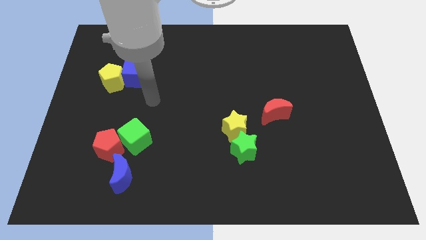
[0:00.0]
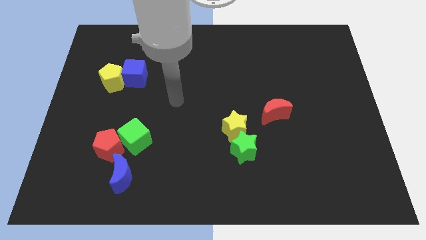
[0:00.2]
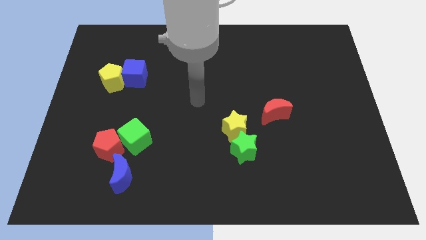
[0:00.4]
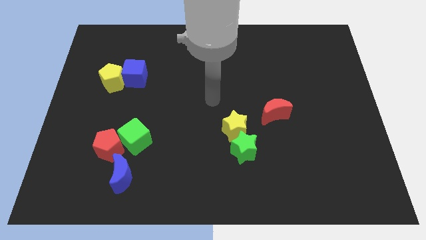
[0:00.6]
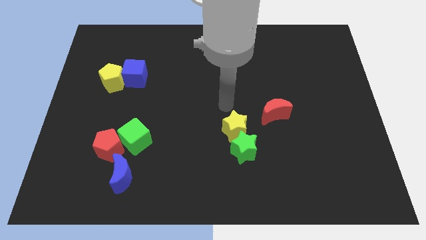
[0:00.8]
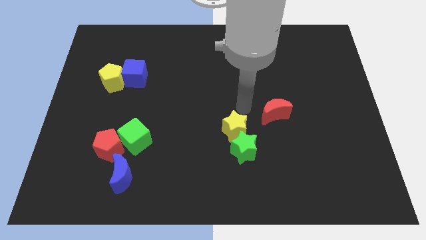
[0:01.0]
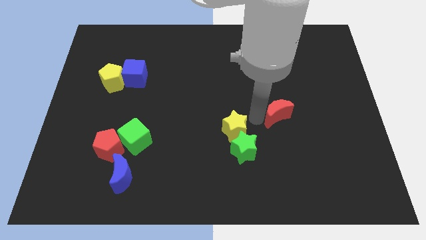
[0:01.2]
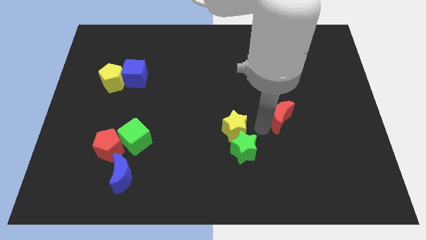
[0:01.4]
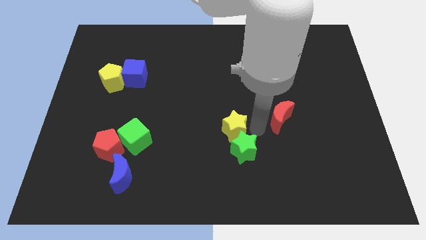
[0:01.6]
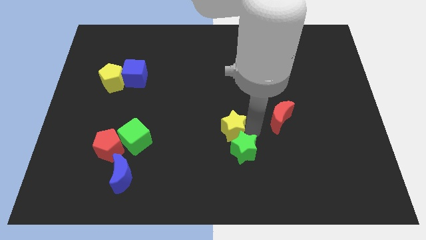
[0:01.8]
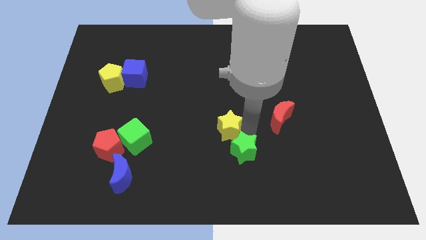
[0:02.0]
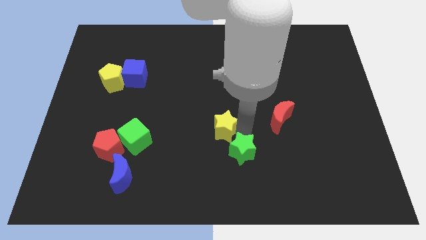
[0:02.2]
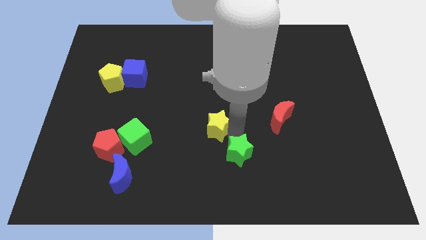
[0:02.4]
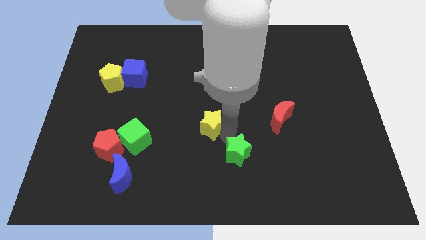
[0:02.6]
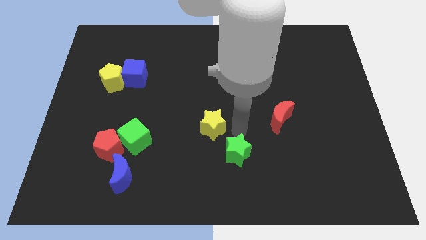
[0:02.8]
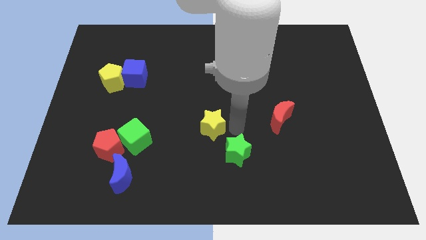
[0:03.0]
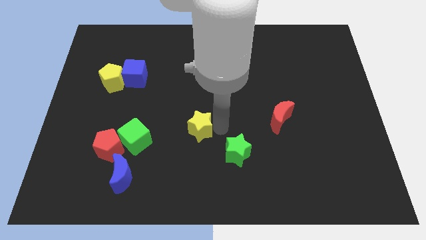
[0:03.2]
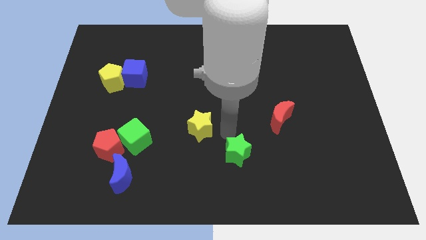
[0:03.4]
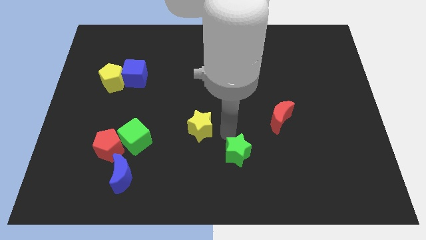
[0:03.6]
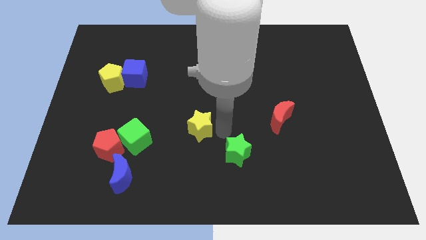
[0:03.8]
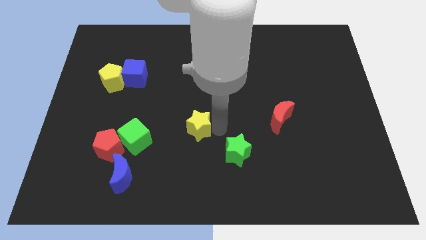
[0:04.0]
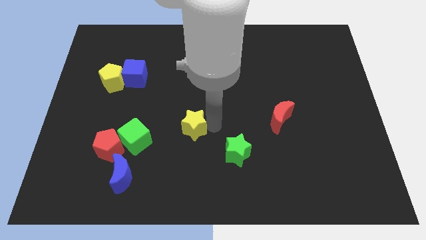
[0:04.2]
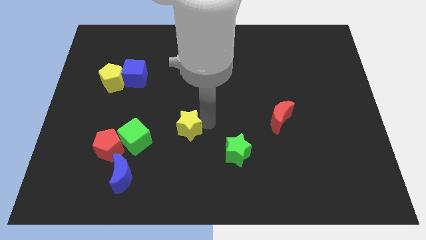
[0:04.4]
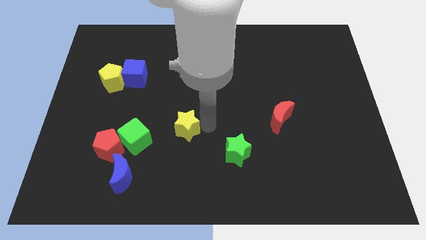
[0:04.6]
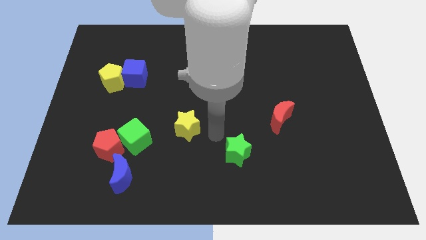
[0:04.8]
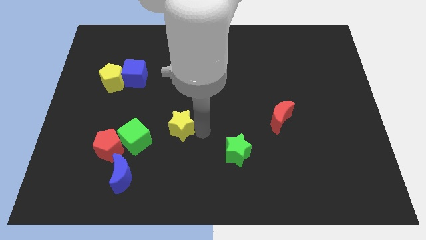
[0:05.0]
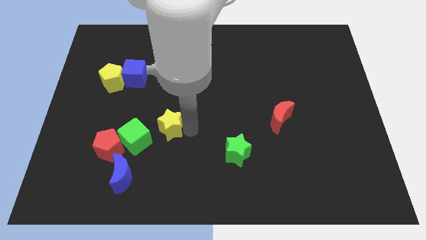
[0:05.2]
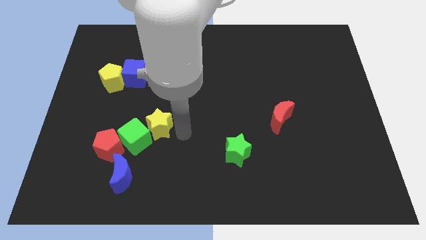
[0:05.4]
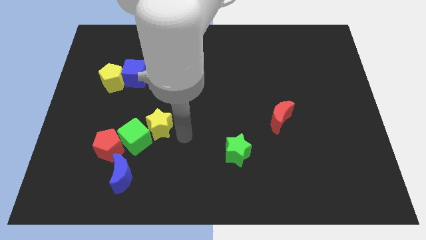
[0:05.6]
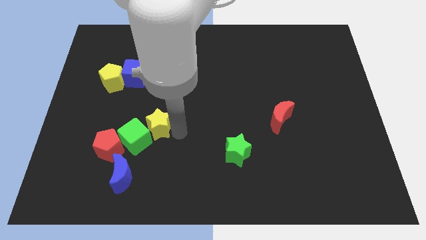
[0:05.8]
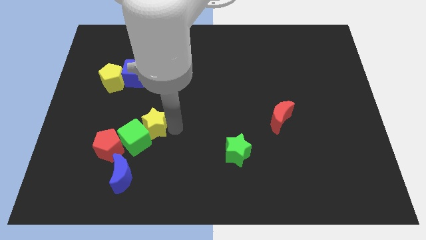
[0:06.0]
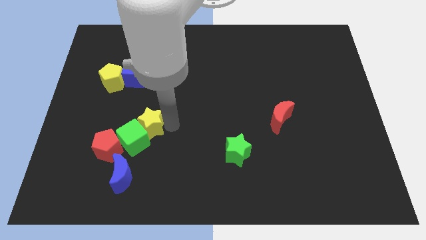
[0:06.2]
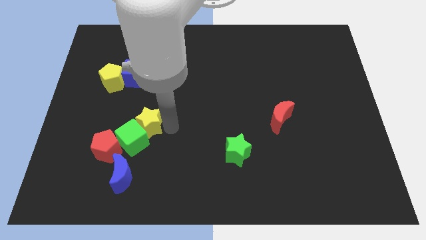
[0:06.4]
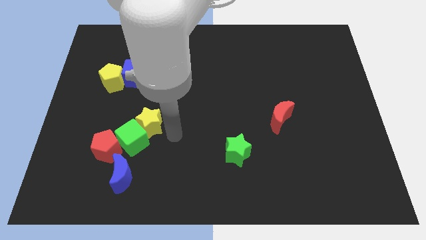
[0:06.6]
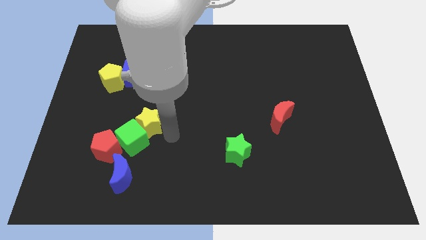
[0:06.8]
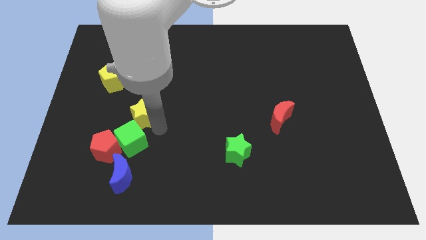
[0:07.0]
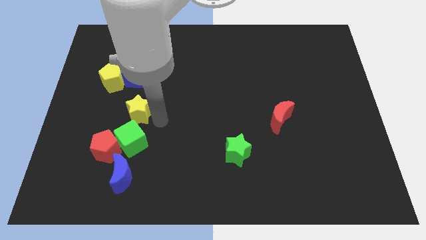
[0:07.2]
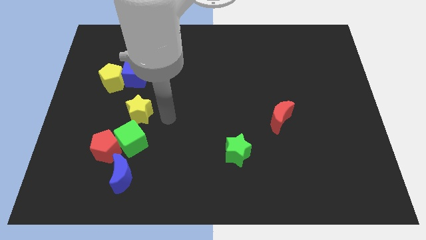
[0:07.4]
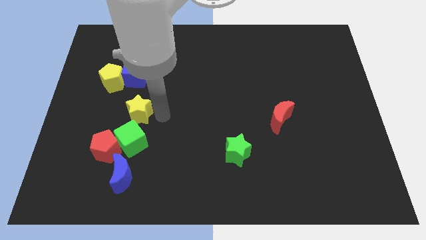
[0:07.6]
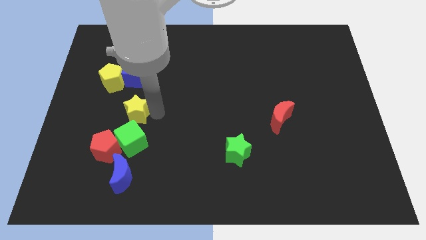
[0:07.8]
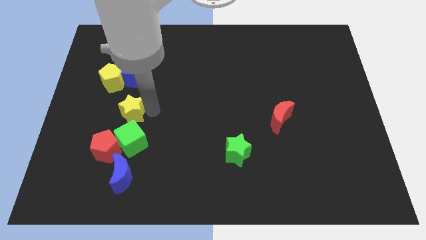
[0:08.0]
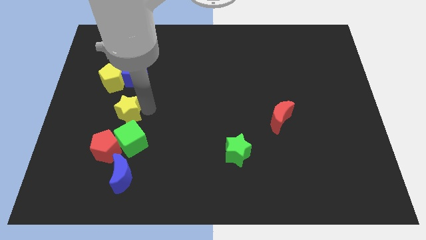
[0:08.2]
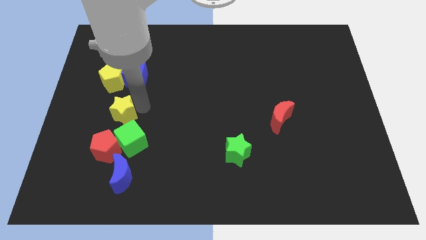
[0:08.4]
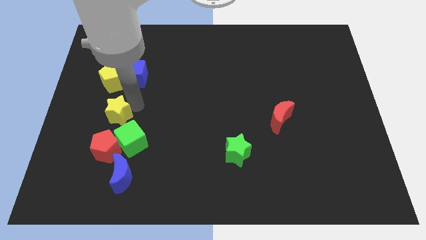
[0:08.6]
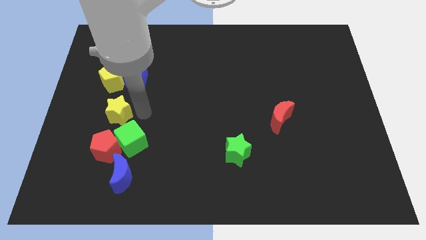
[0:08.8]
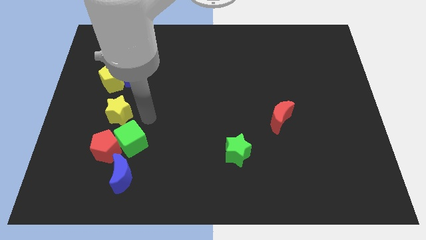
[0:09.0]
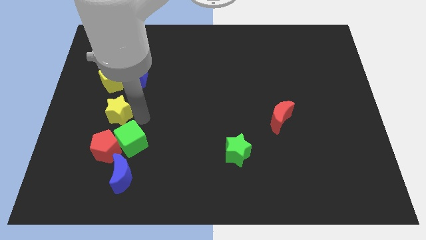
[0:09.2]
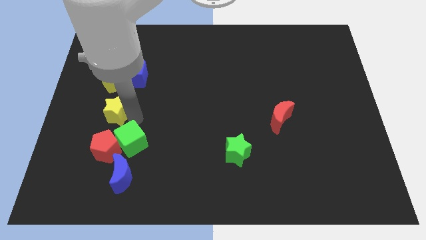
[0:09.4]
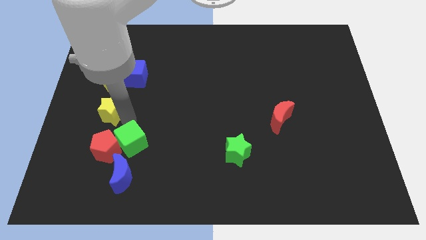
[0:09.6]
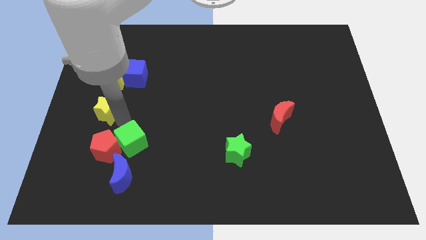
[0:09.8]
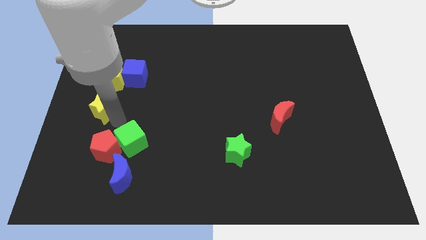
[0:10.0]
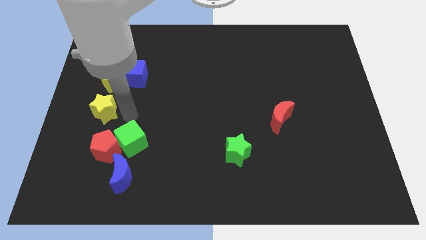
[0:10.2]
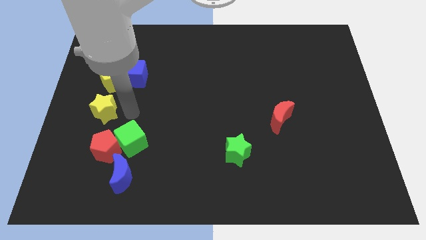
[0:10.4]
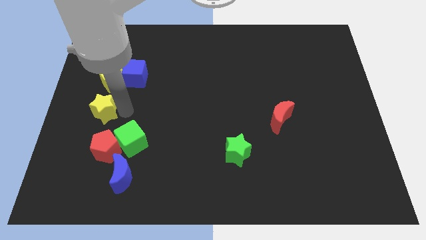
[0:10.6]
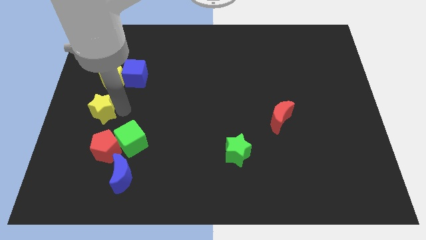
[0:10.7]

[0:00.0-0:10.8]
push the yellow star to the center left

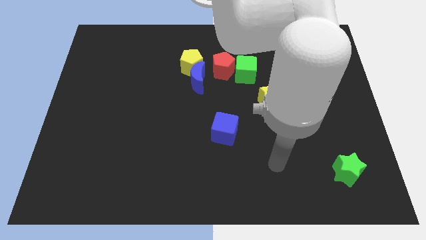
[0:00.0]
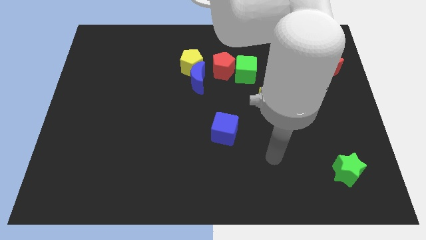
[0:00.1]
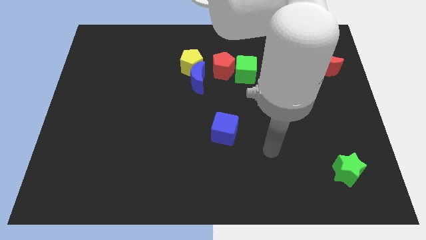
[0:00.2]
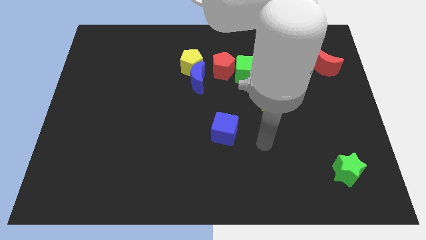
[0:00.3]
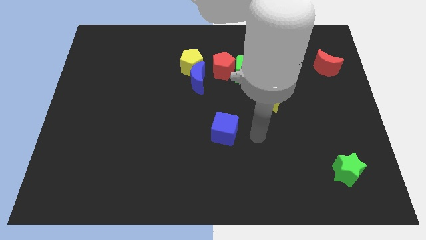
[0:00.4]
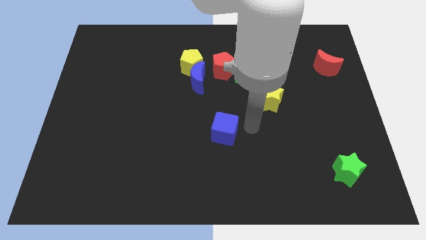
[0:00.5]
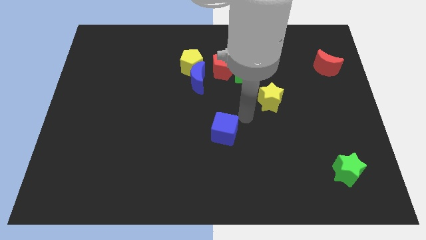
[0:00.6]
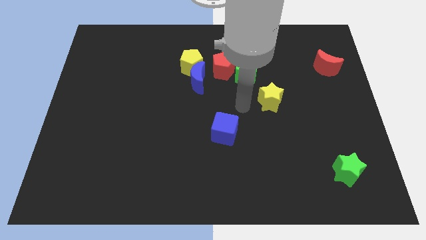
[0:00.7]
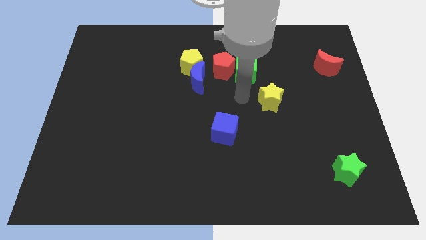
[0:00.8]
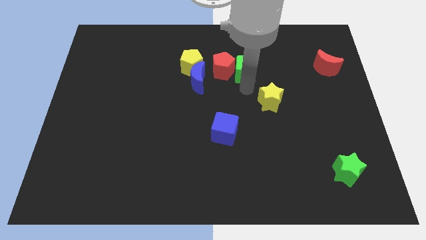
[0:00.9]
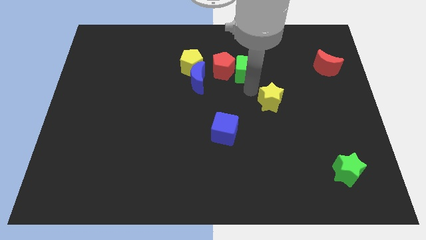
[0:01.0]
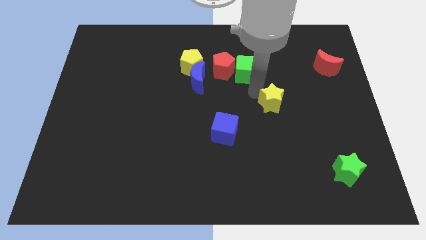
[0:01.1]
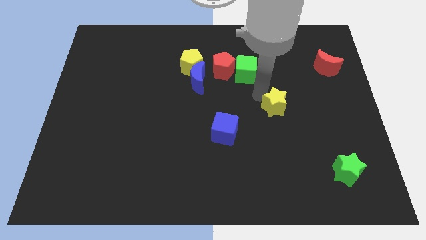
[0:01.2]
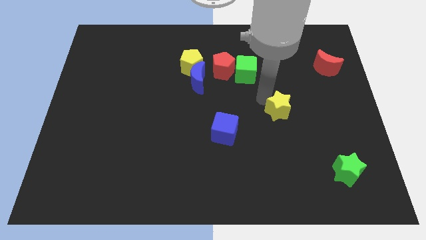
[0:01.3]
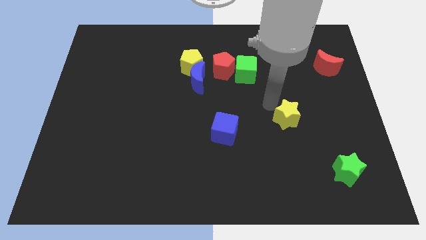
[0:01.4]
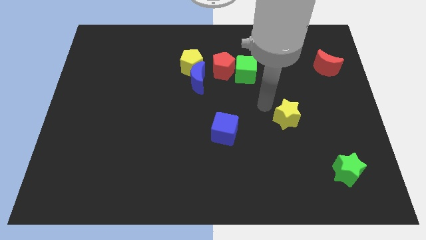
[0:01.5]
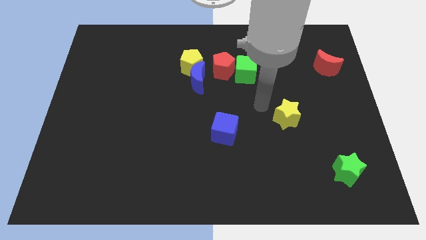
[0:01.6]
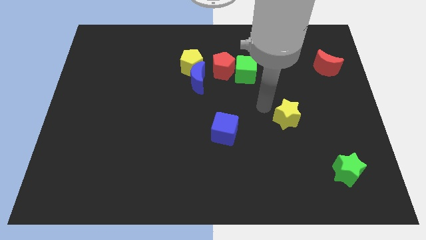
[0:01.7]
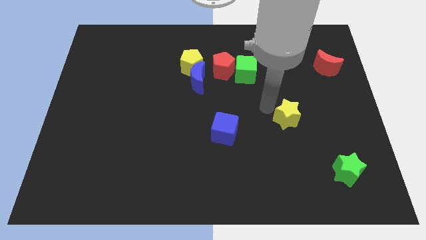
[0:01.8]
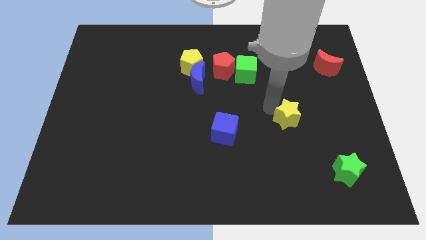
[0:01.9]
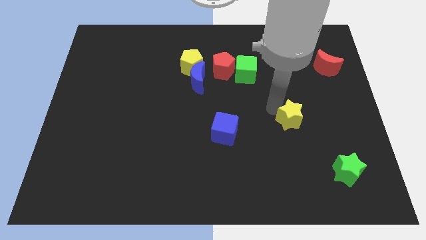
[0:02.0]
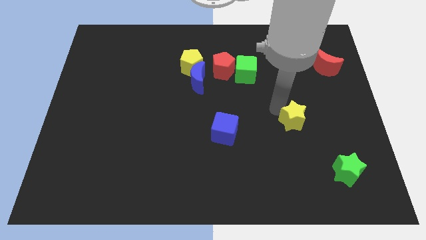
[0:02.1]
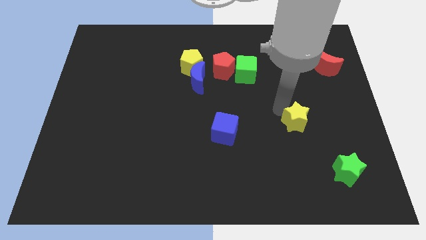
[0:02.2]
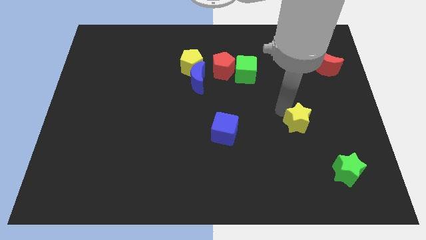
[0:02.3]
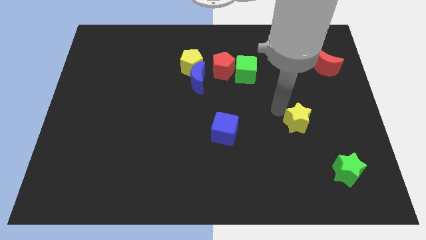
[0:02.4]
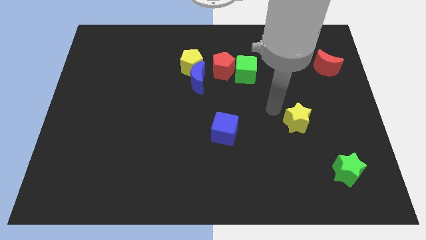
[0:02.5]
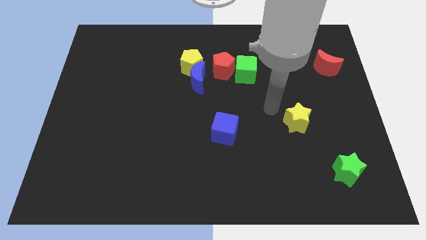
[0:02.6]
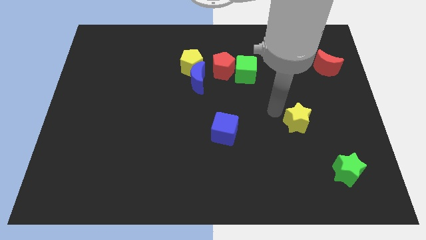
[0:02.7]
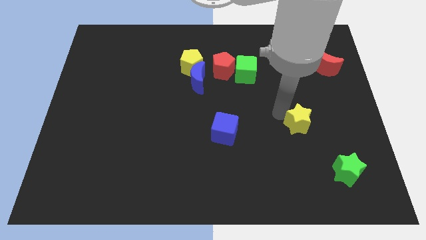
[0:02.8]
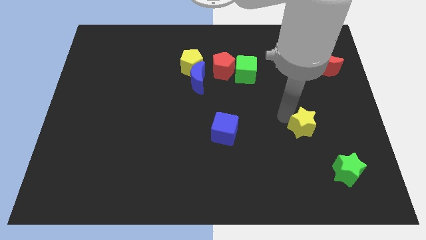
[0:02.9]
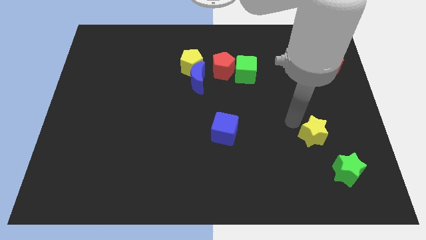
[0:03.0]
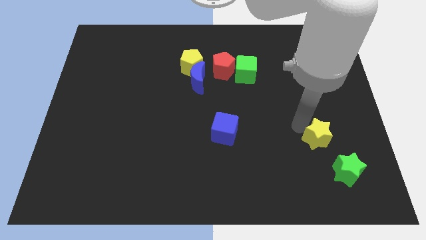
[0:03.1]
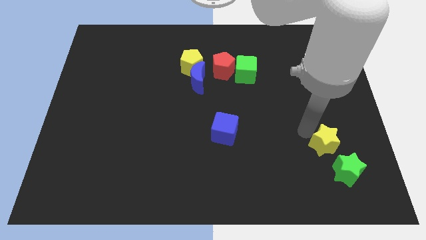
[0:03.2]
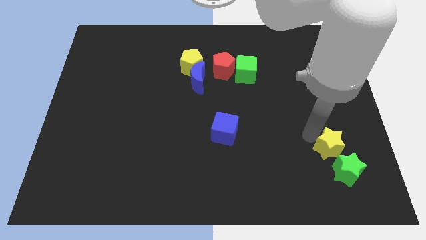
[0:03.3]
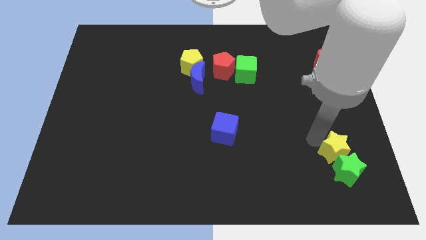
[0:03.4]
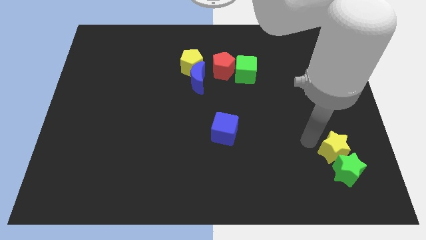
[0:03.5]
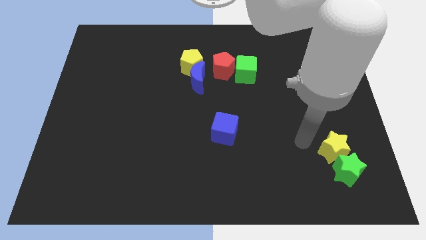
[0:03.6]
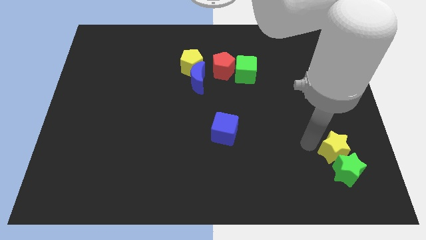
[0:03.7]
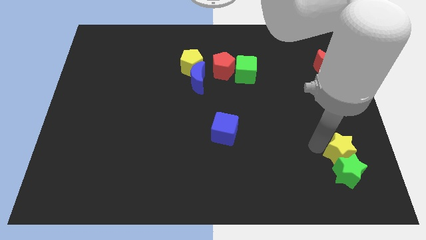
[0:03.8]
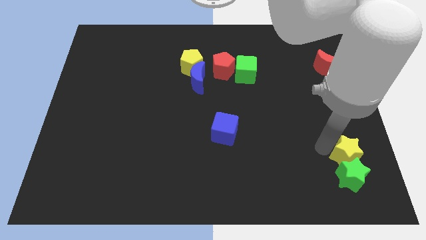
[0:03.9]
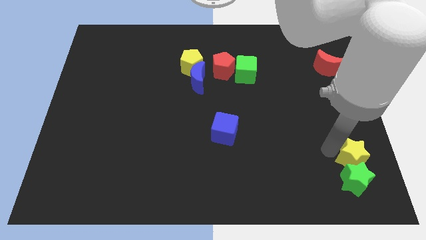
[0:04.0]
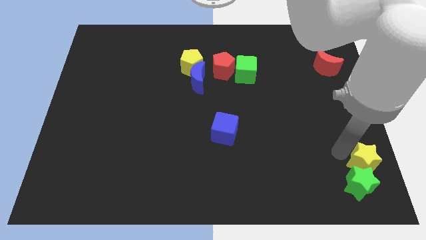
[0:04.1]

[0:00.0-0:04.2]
move the yellow star to the lower right corner
